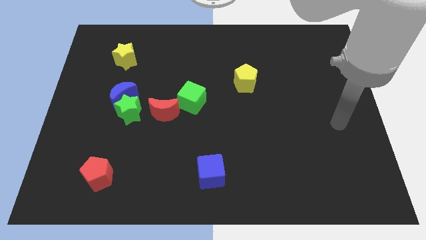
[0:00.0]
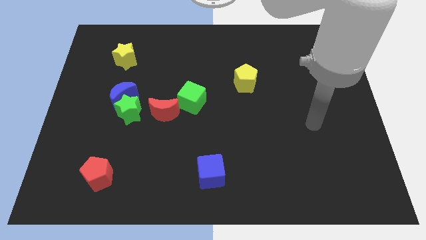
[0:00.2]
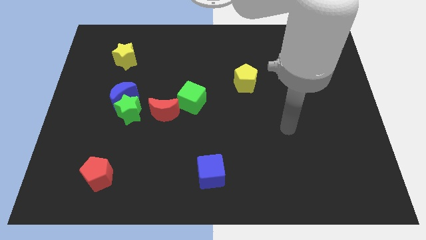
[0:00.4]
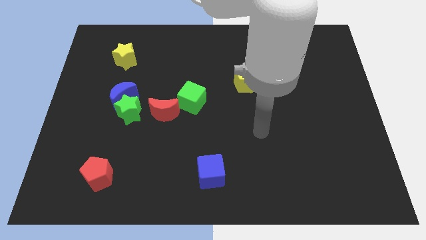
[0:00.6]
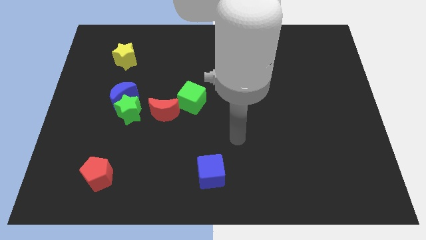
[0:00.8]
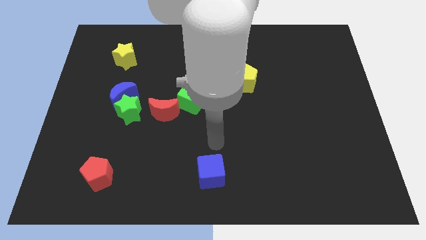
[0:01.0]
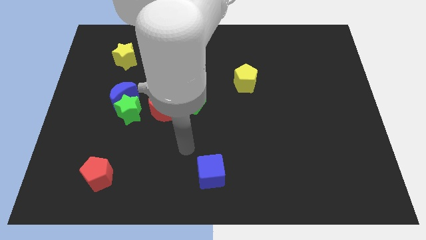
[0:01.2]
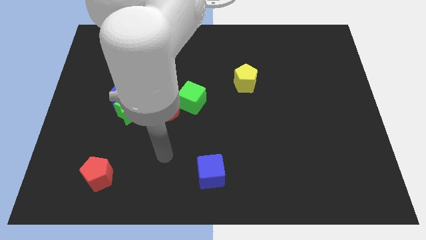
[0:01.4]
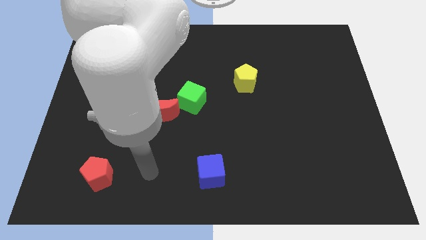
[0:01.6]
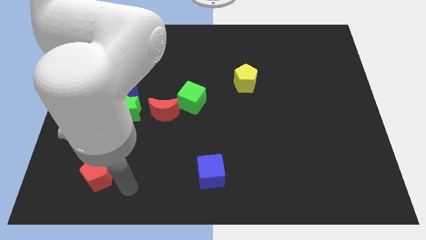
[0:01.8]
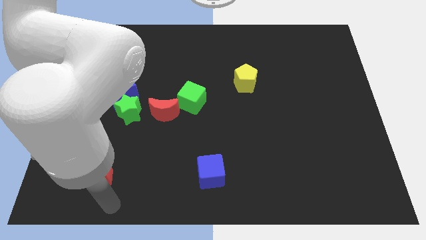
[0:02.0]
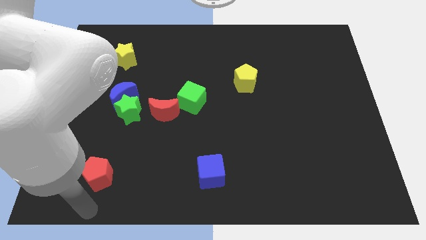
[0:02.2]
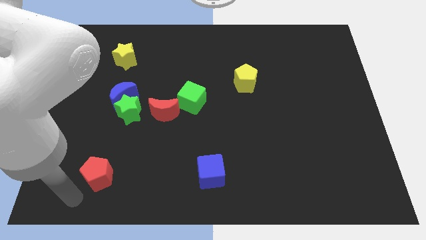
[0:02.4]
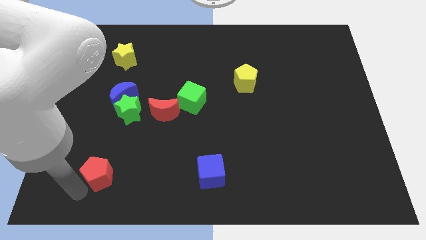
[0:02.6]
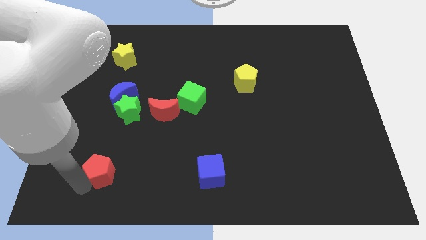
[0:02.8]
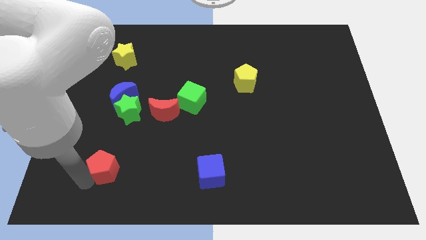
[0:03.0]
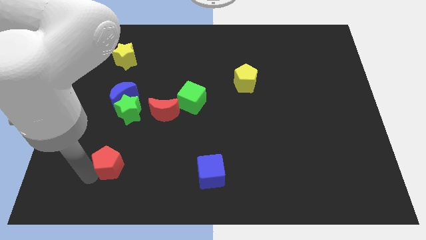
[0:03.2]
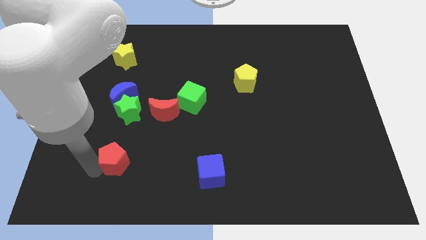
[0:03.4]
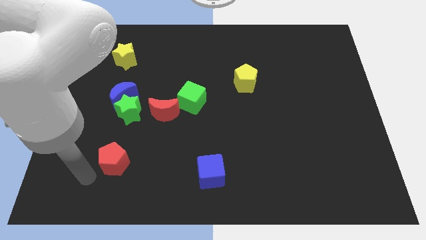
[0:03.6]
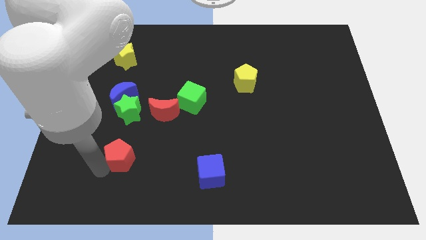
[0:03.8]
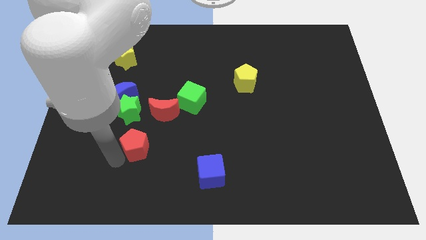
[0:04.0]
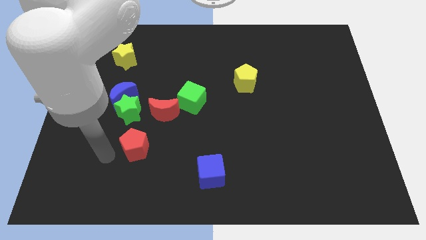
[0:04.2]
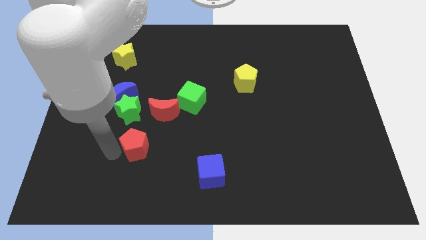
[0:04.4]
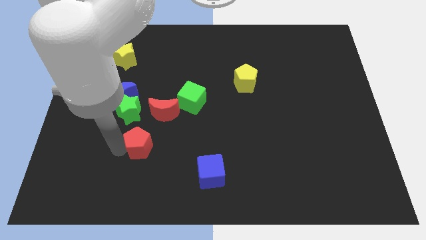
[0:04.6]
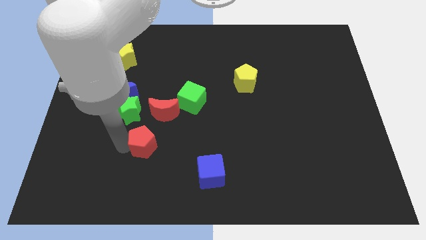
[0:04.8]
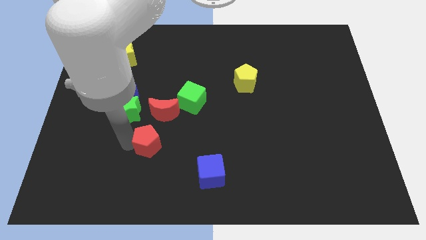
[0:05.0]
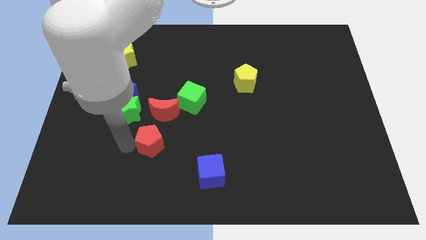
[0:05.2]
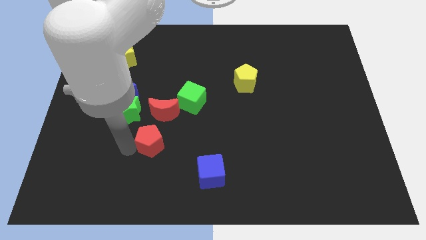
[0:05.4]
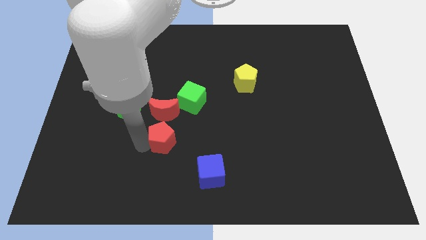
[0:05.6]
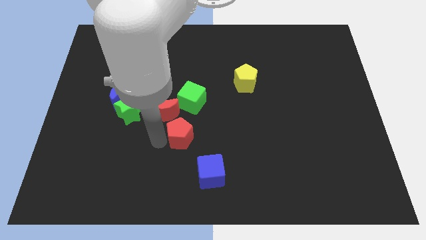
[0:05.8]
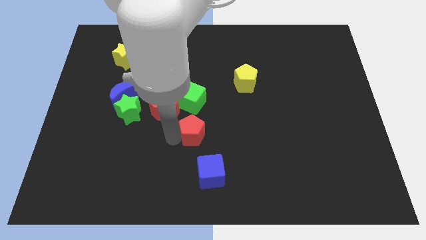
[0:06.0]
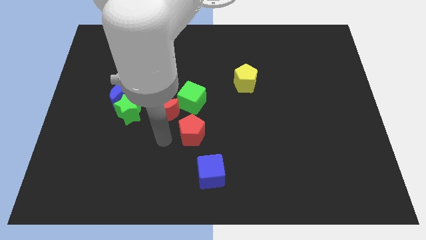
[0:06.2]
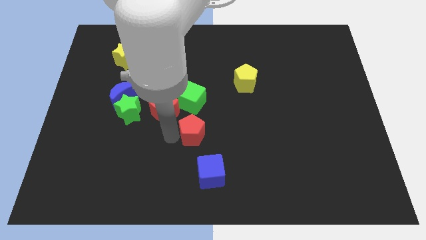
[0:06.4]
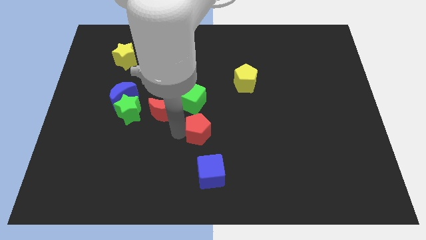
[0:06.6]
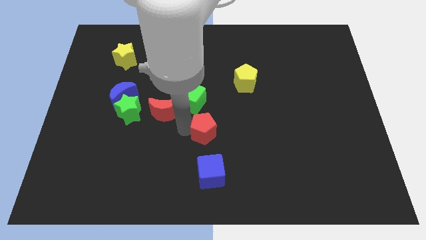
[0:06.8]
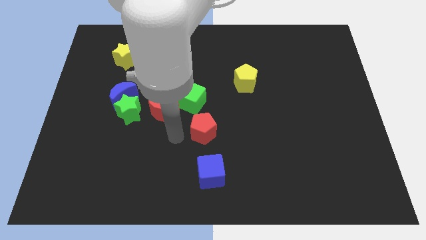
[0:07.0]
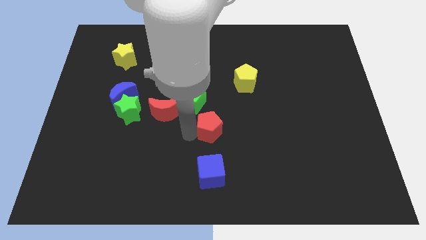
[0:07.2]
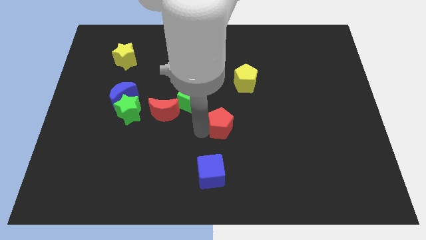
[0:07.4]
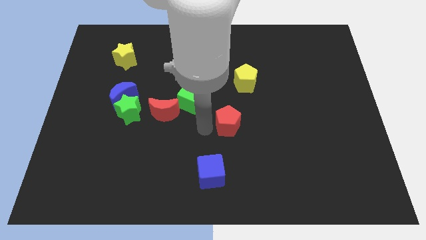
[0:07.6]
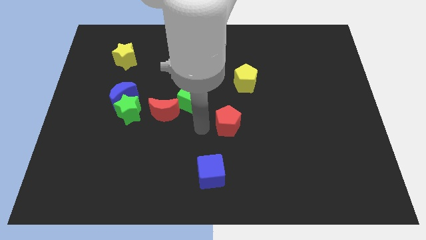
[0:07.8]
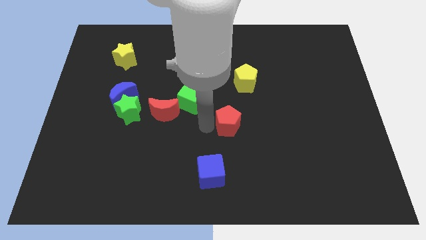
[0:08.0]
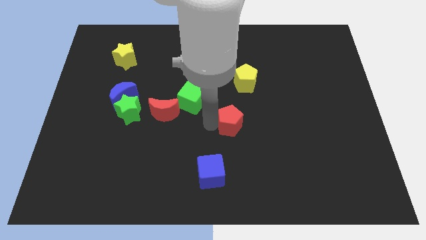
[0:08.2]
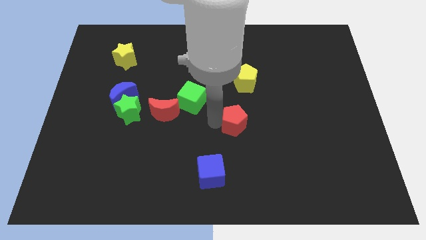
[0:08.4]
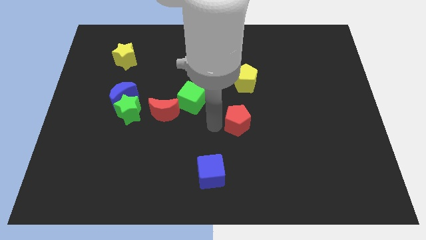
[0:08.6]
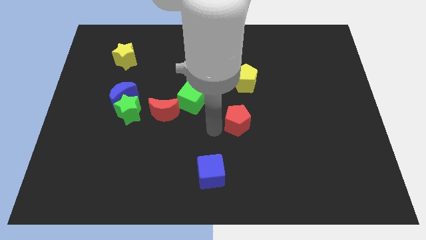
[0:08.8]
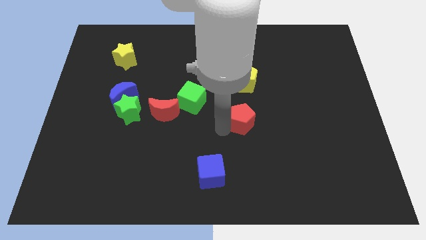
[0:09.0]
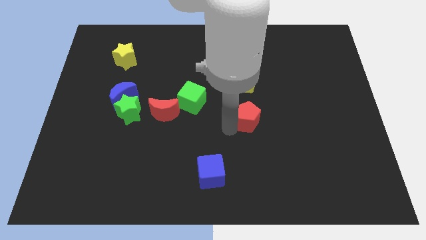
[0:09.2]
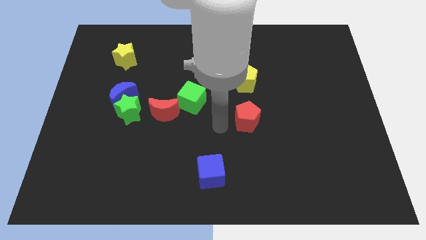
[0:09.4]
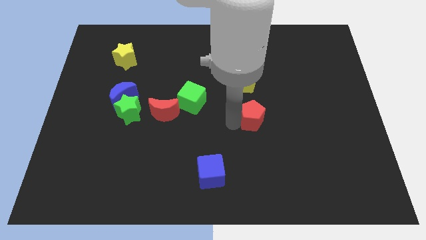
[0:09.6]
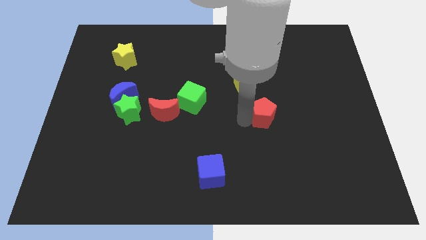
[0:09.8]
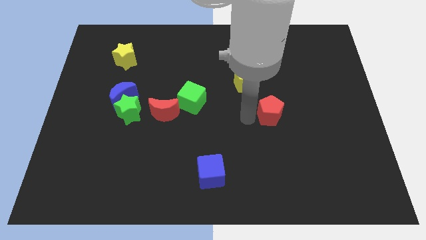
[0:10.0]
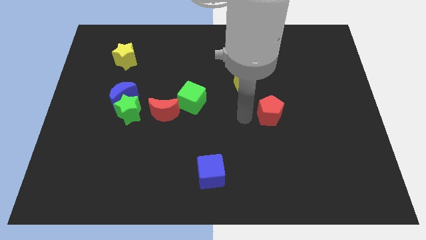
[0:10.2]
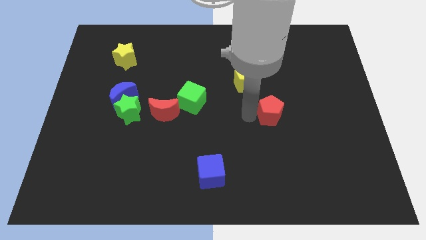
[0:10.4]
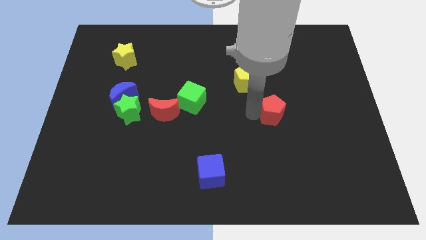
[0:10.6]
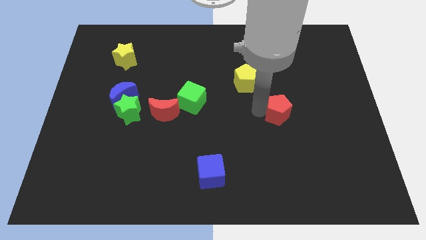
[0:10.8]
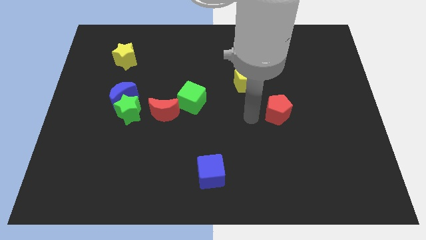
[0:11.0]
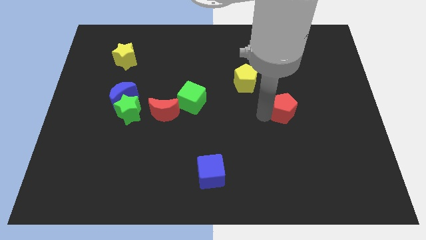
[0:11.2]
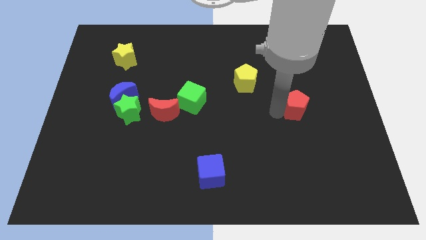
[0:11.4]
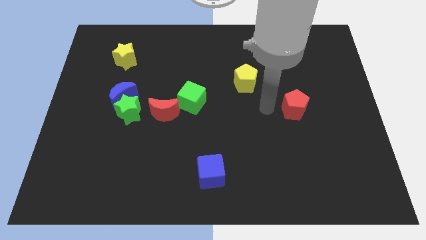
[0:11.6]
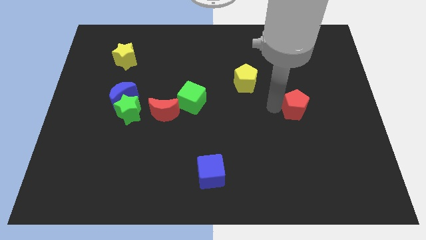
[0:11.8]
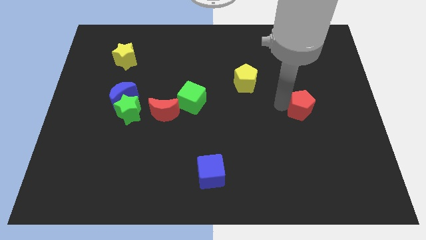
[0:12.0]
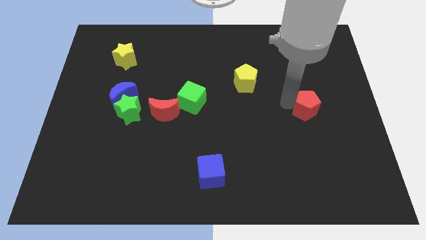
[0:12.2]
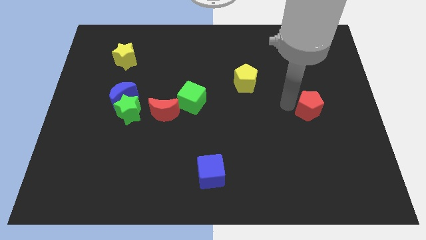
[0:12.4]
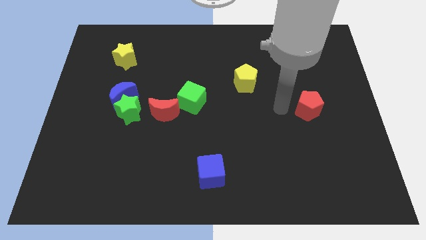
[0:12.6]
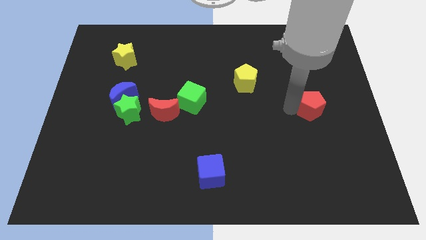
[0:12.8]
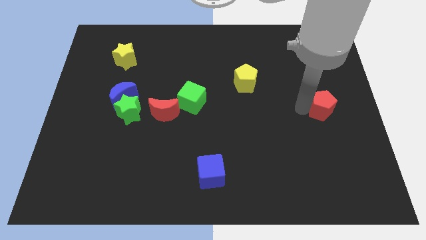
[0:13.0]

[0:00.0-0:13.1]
push the red pentagon to the center right
